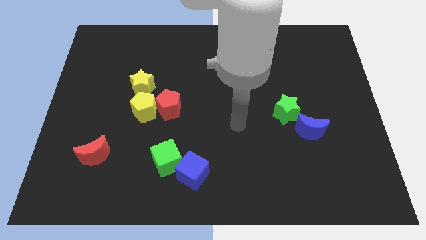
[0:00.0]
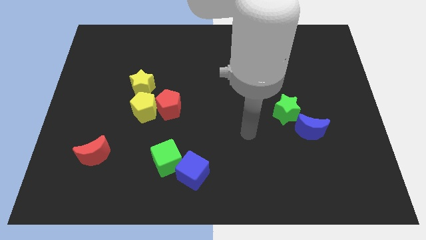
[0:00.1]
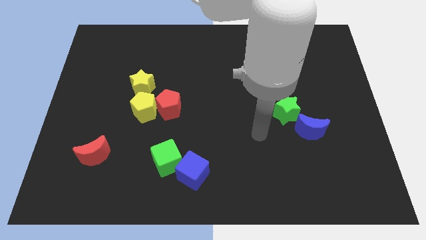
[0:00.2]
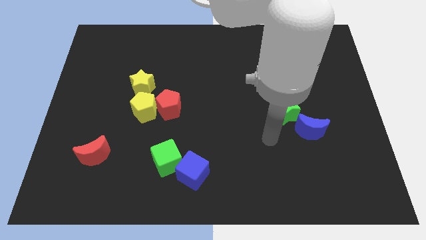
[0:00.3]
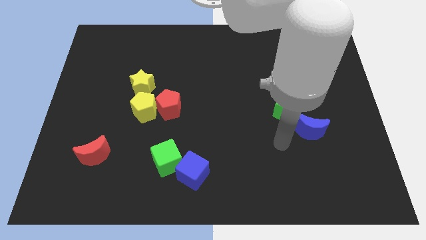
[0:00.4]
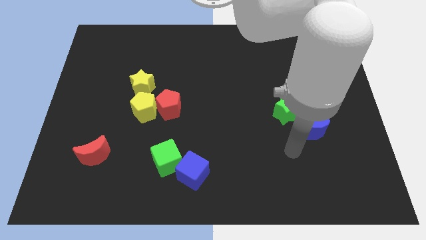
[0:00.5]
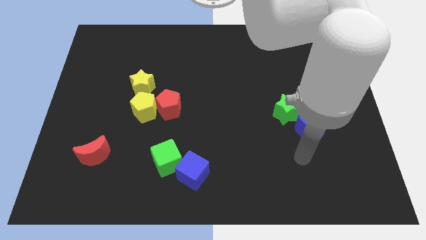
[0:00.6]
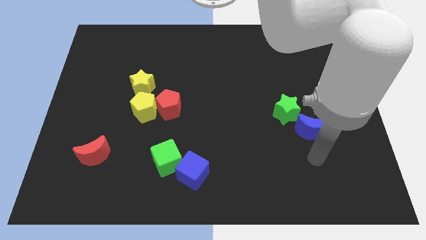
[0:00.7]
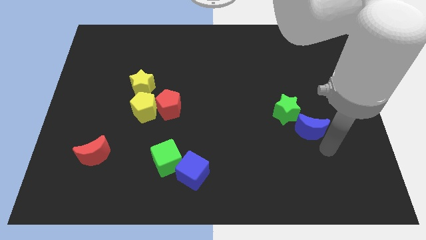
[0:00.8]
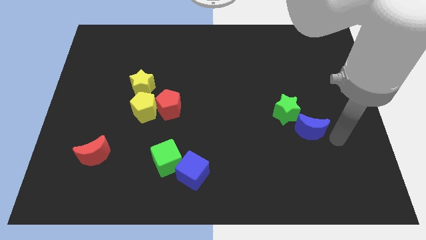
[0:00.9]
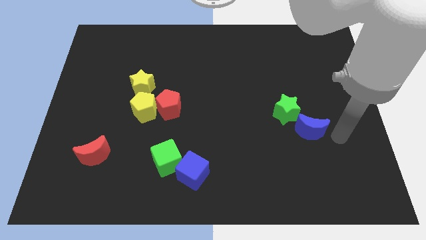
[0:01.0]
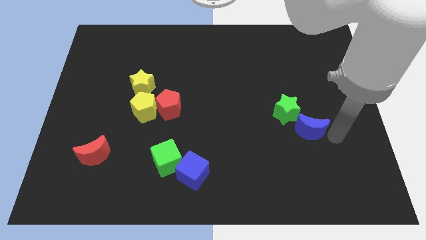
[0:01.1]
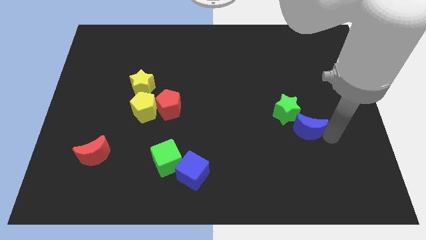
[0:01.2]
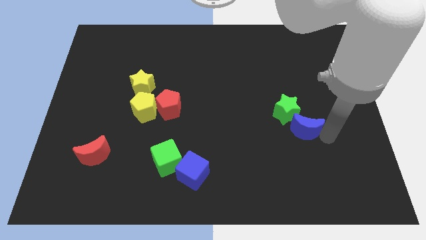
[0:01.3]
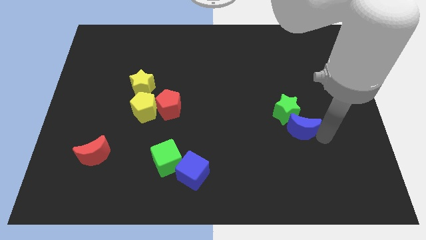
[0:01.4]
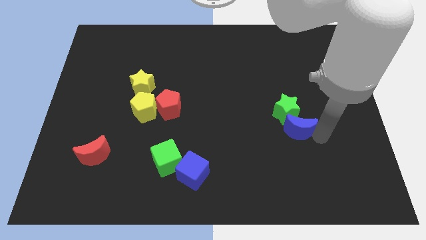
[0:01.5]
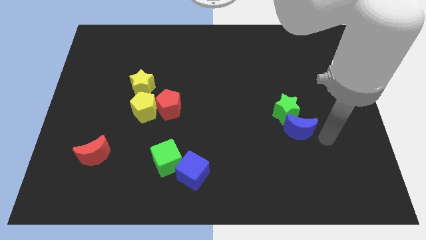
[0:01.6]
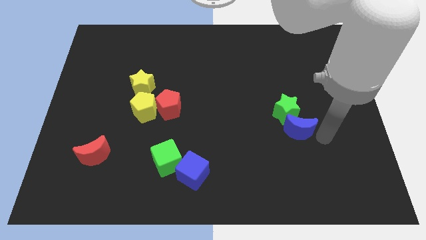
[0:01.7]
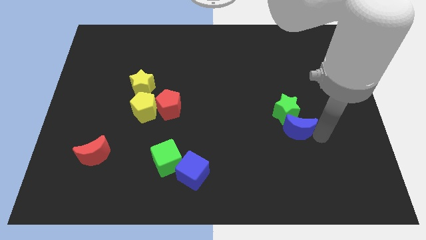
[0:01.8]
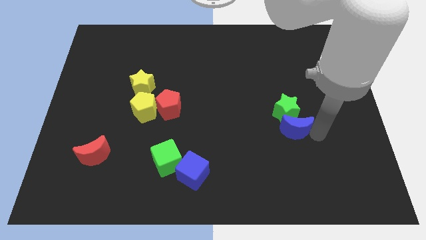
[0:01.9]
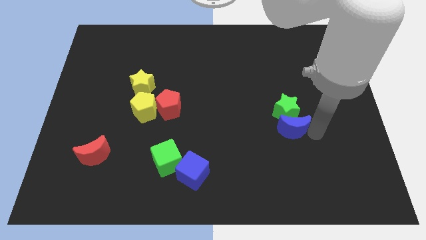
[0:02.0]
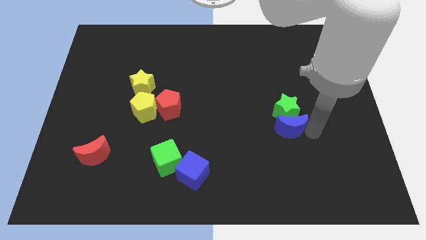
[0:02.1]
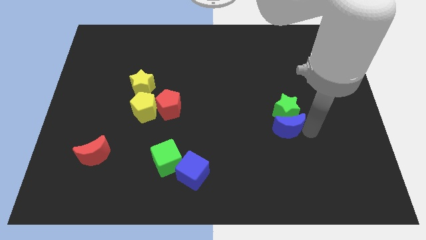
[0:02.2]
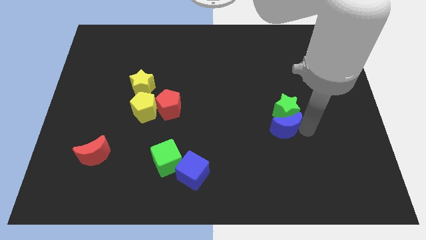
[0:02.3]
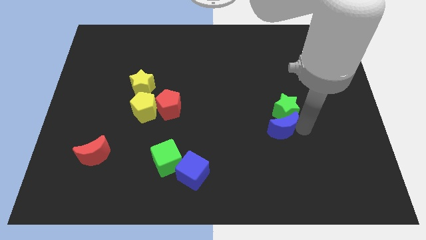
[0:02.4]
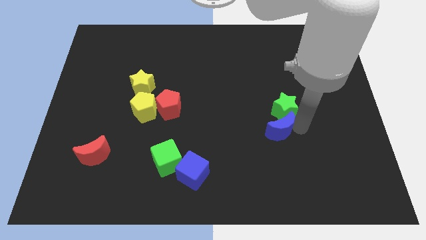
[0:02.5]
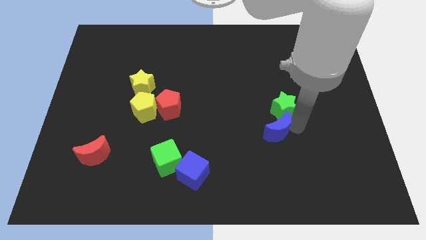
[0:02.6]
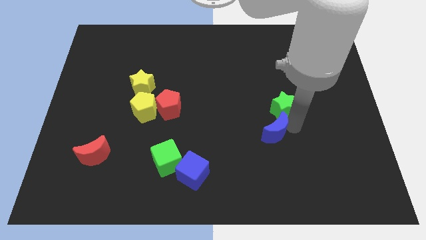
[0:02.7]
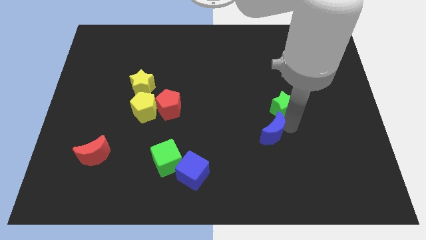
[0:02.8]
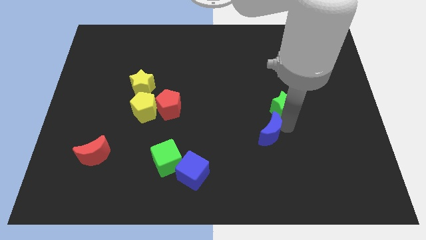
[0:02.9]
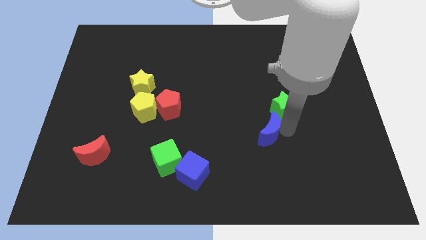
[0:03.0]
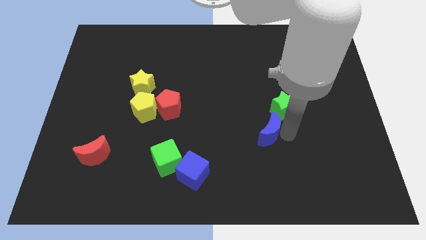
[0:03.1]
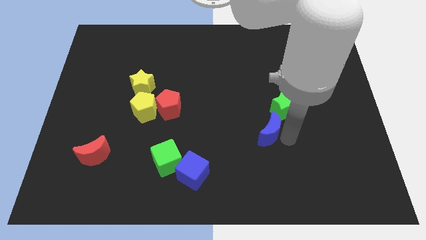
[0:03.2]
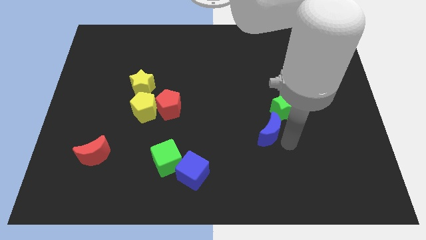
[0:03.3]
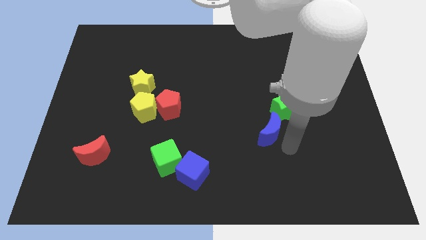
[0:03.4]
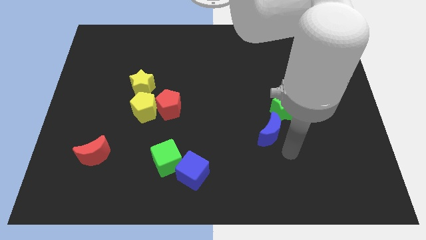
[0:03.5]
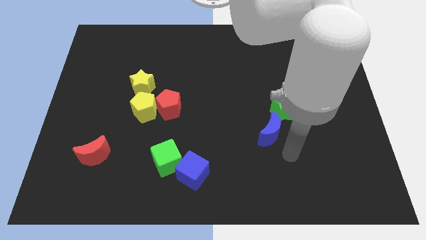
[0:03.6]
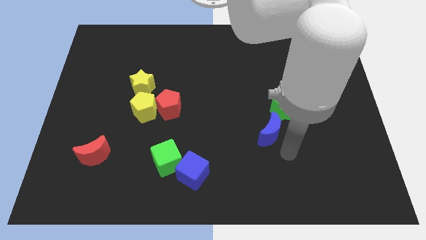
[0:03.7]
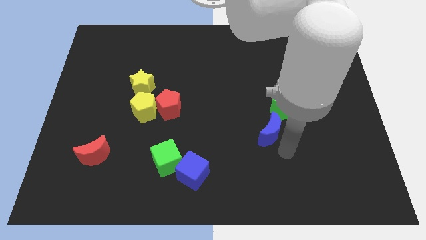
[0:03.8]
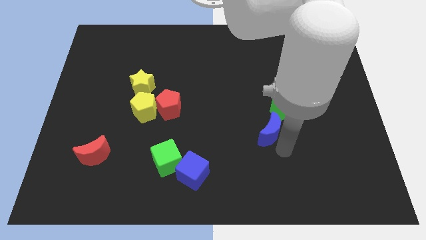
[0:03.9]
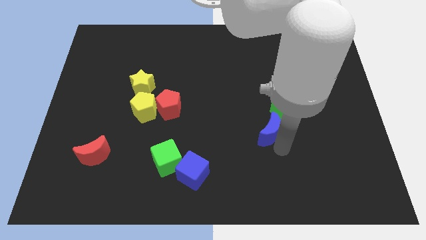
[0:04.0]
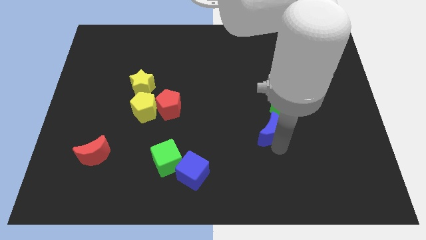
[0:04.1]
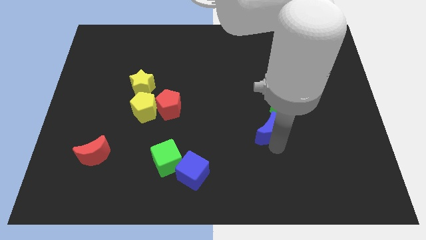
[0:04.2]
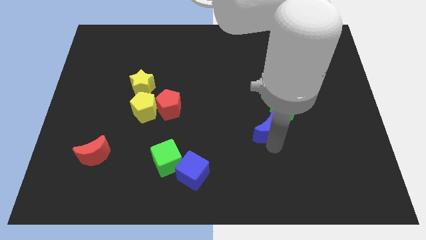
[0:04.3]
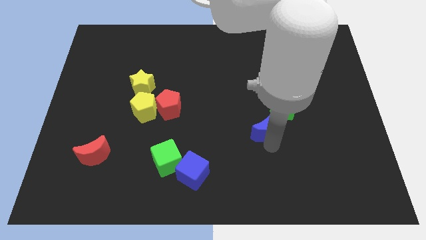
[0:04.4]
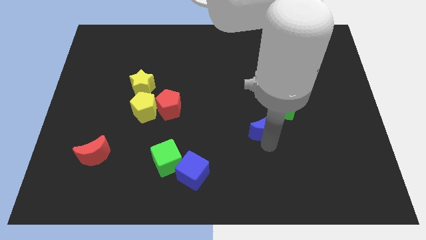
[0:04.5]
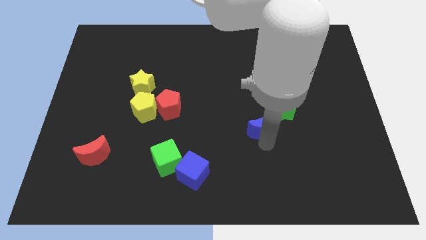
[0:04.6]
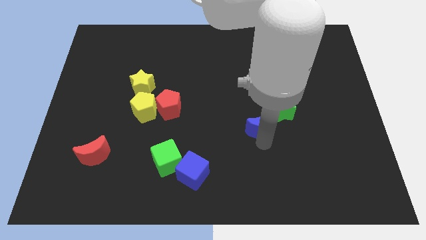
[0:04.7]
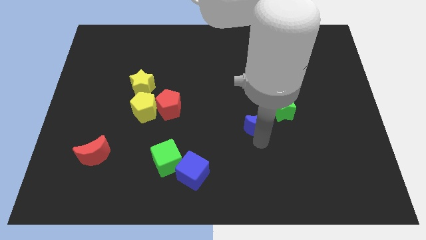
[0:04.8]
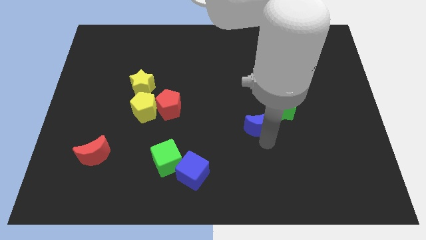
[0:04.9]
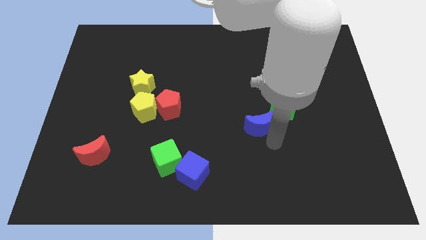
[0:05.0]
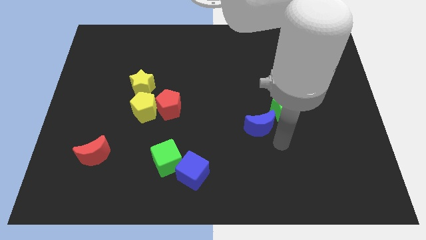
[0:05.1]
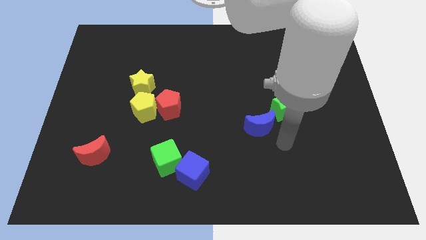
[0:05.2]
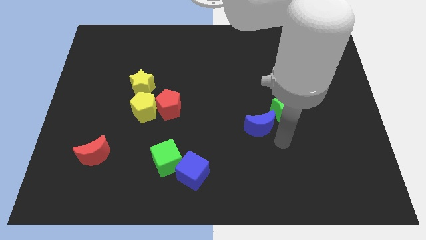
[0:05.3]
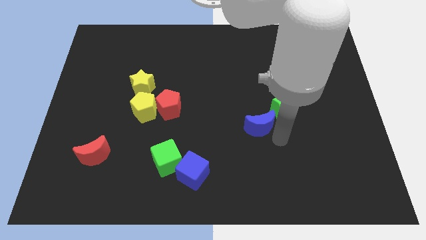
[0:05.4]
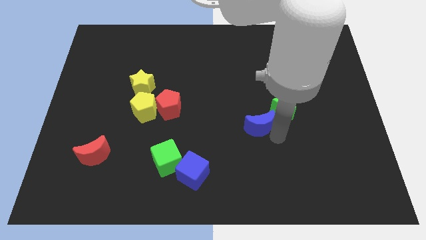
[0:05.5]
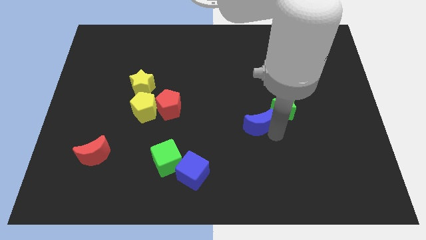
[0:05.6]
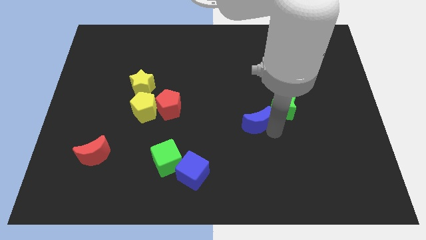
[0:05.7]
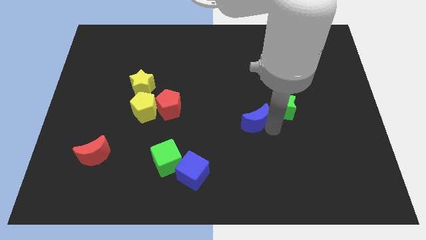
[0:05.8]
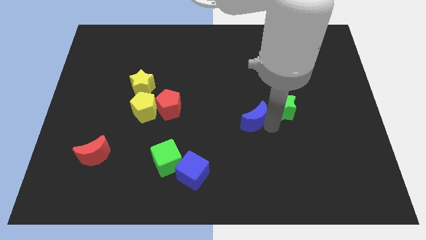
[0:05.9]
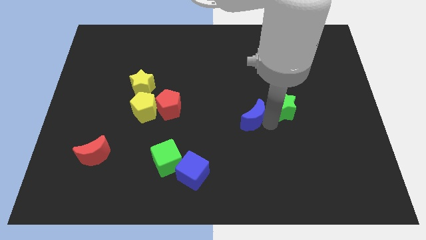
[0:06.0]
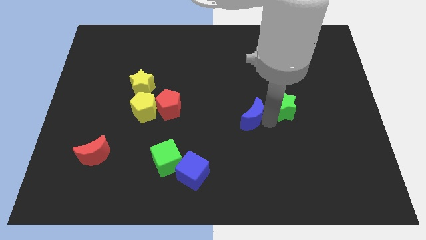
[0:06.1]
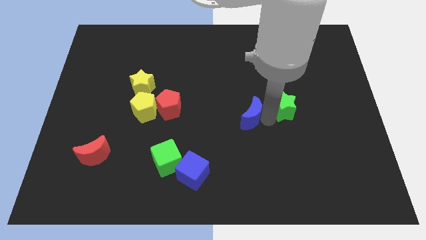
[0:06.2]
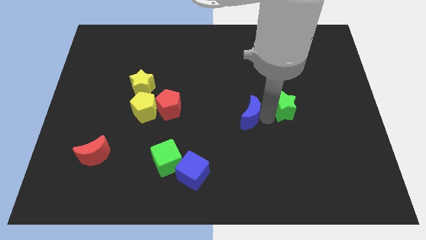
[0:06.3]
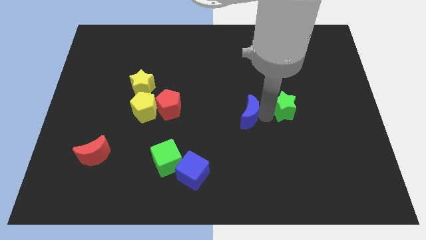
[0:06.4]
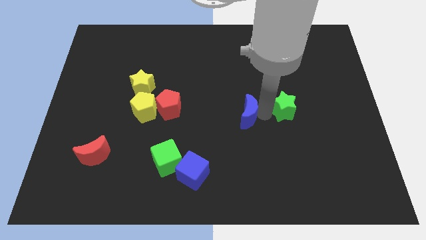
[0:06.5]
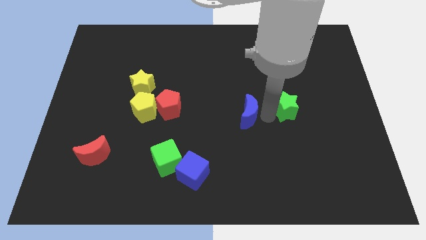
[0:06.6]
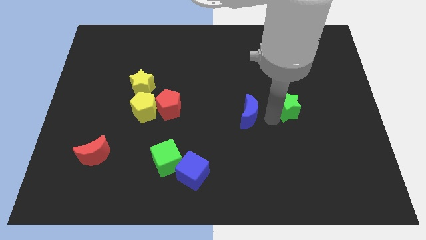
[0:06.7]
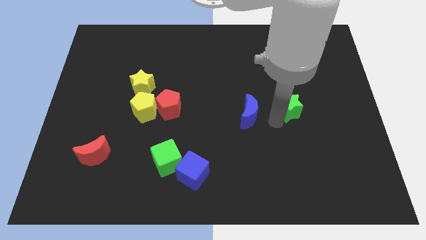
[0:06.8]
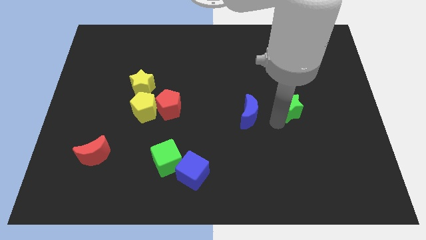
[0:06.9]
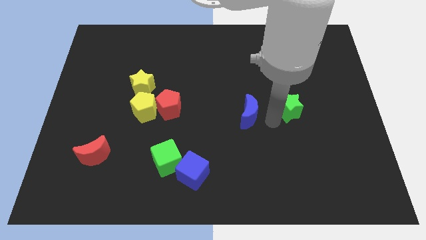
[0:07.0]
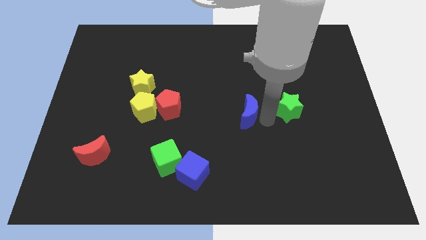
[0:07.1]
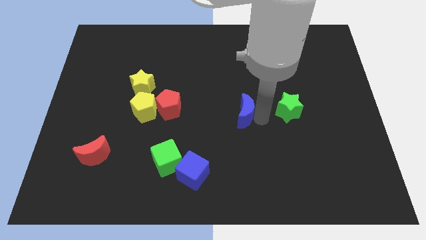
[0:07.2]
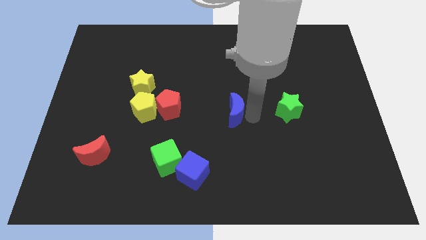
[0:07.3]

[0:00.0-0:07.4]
move the blue moon to the right of the red pentagon

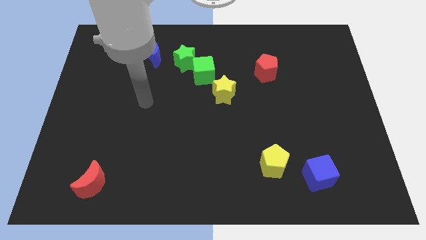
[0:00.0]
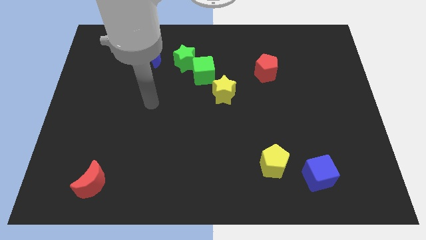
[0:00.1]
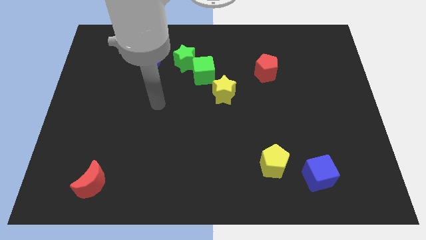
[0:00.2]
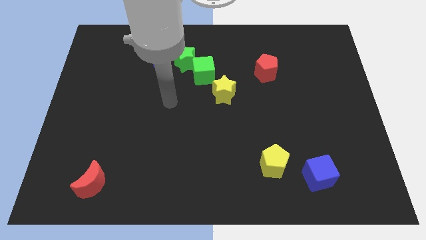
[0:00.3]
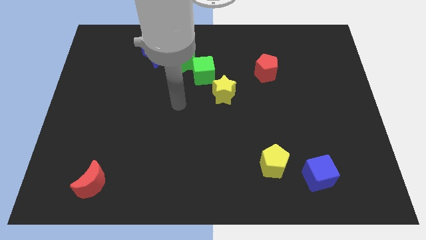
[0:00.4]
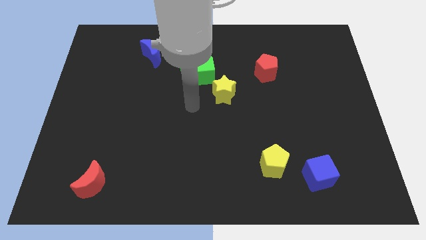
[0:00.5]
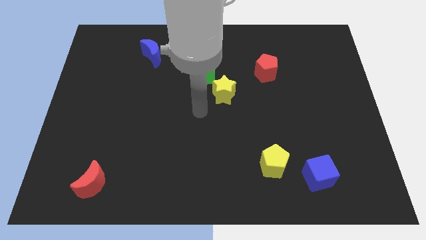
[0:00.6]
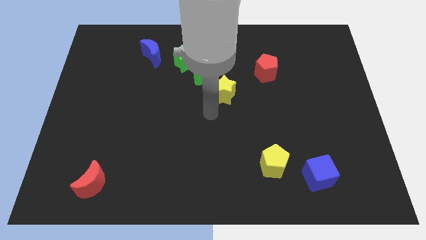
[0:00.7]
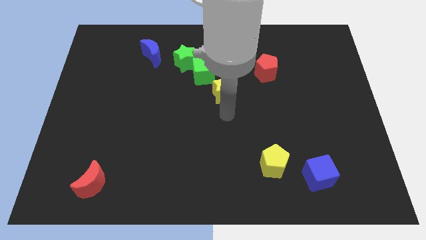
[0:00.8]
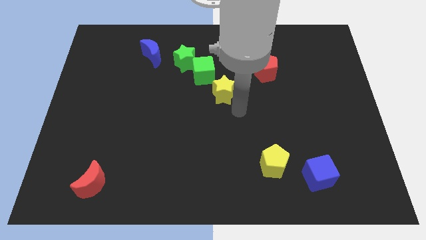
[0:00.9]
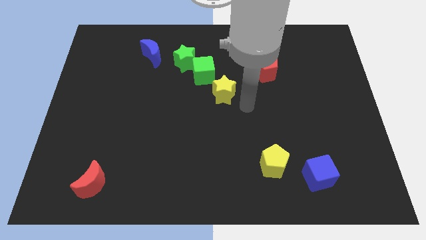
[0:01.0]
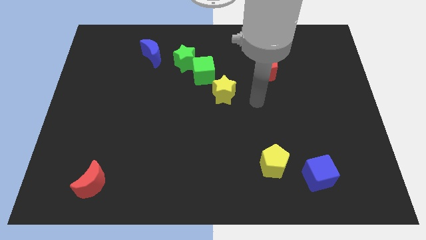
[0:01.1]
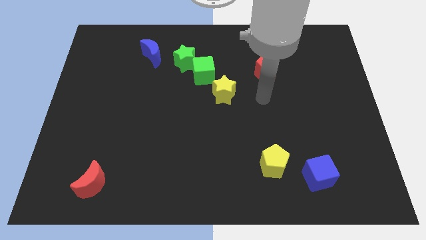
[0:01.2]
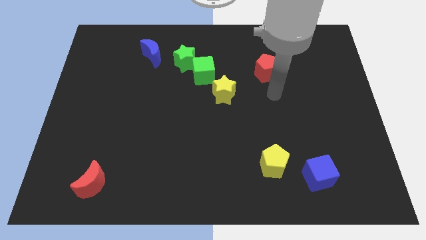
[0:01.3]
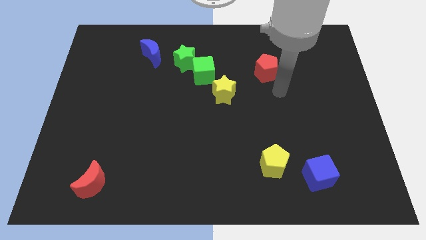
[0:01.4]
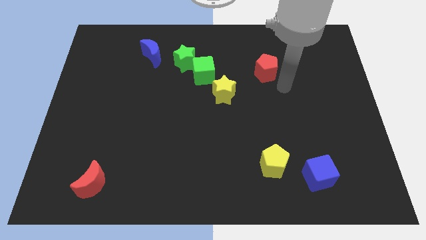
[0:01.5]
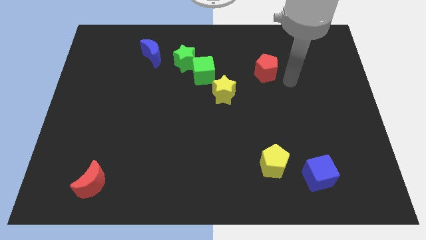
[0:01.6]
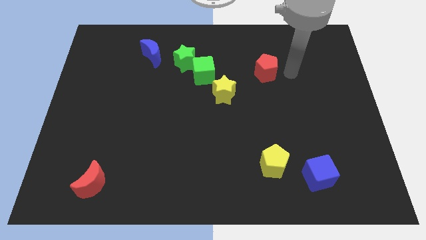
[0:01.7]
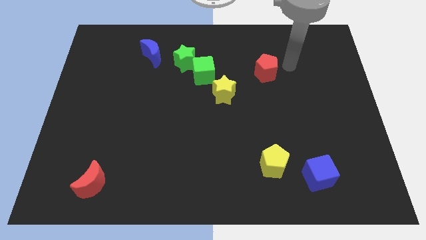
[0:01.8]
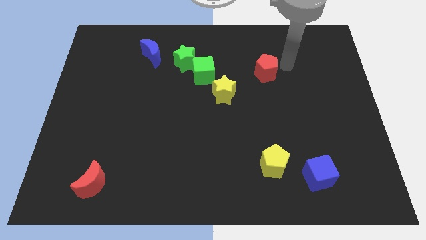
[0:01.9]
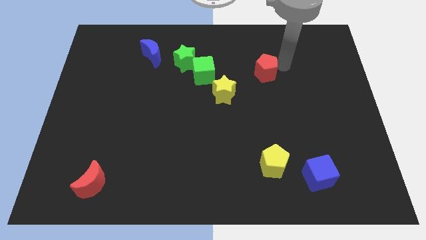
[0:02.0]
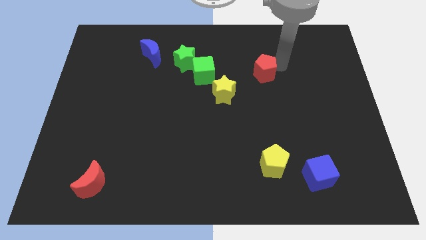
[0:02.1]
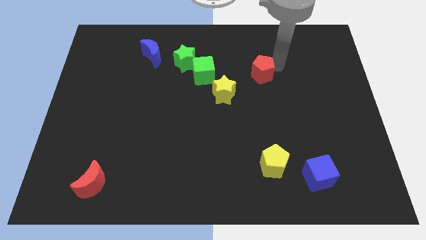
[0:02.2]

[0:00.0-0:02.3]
push the red pentagon to the top right of the yellow star
